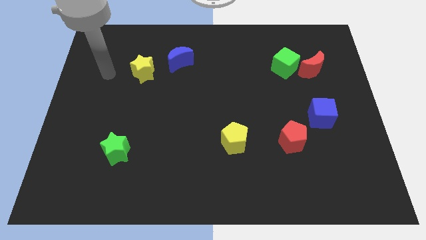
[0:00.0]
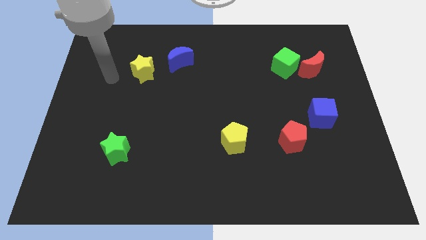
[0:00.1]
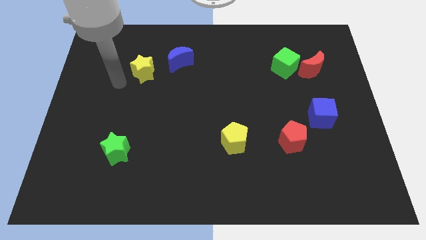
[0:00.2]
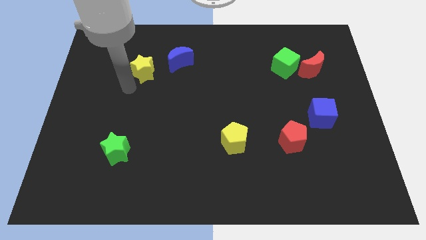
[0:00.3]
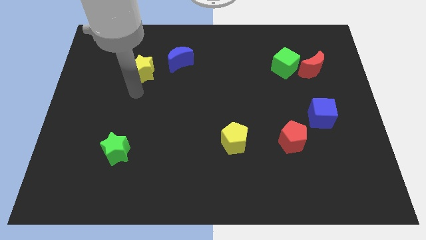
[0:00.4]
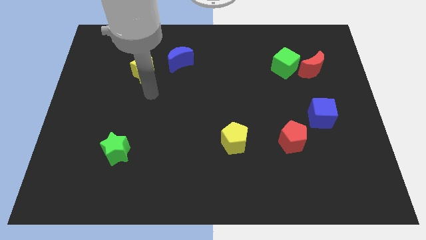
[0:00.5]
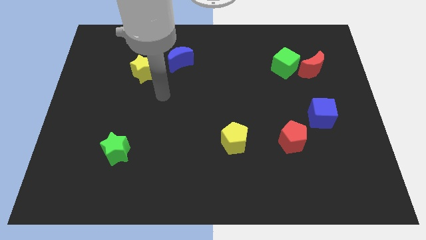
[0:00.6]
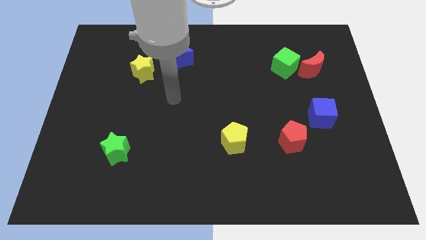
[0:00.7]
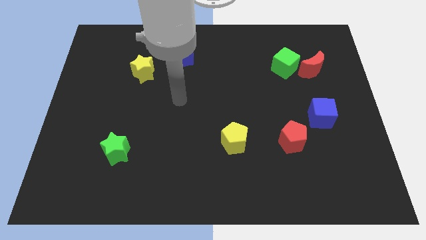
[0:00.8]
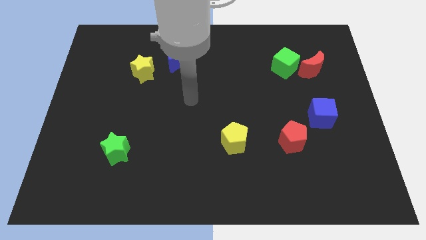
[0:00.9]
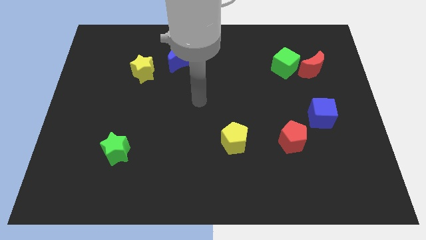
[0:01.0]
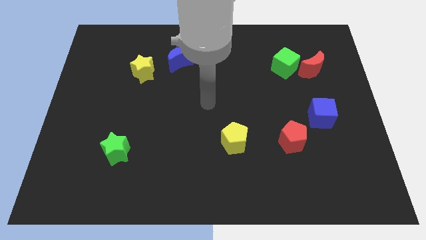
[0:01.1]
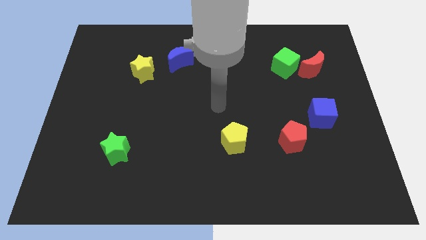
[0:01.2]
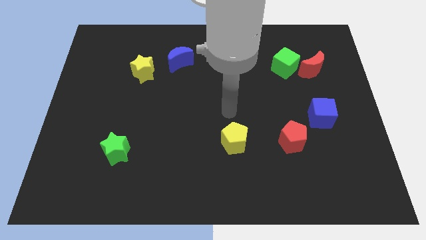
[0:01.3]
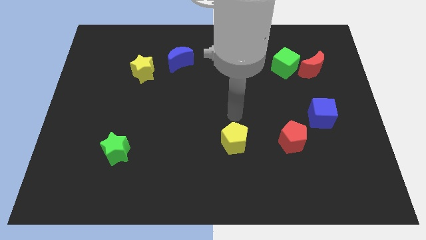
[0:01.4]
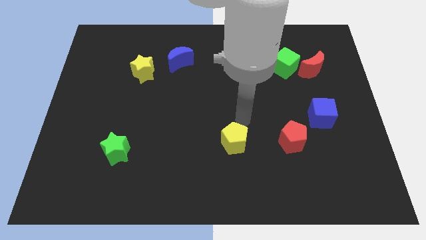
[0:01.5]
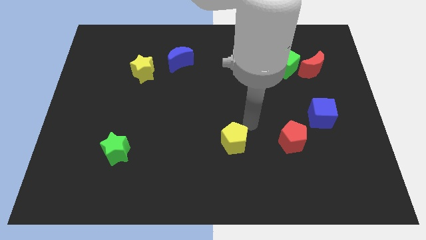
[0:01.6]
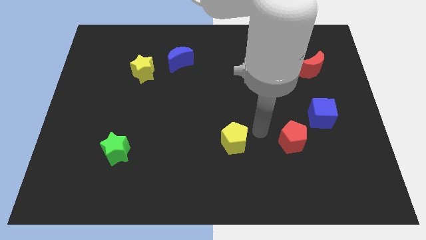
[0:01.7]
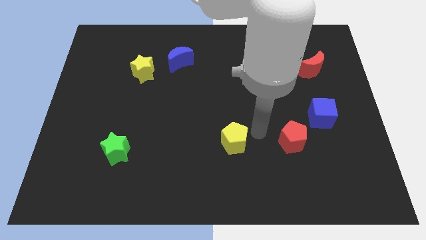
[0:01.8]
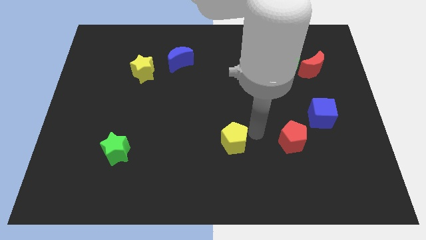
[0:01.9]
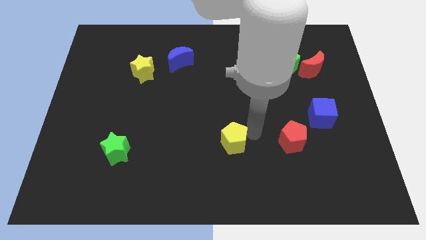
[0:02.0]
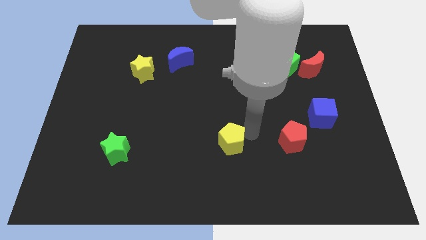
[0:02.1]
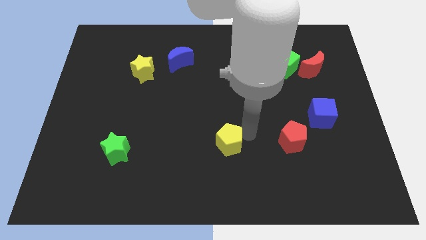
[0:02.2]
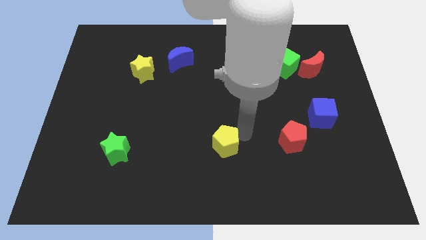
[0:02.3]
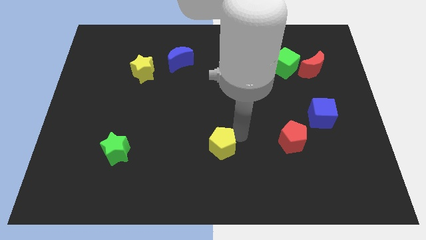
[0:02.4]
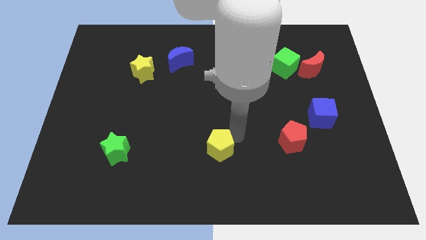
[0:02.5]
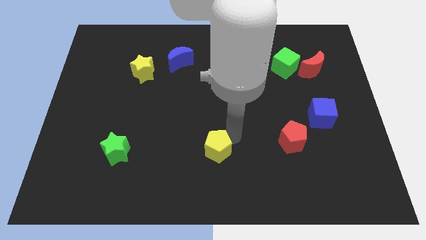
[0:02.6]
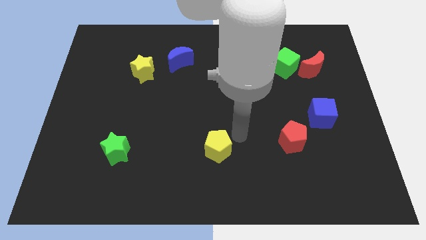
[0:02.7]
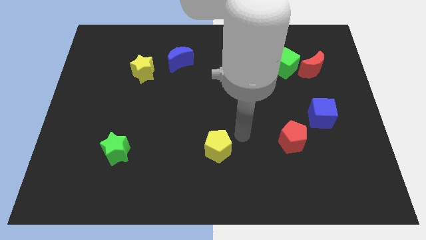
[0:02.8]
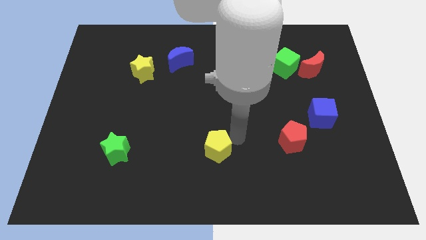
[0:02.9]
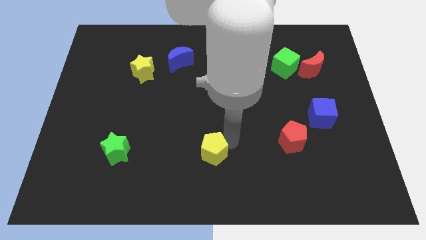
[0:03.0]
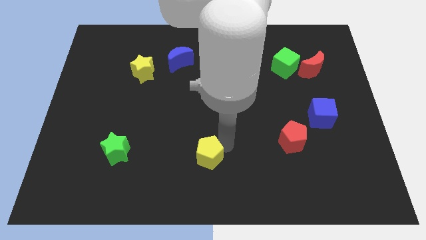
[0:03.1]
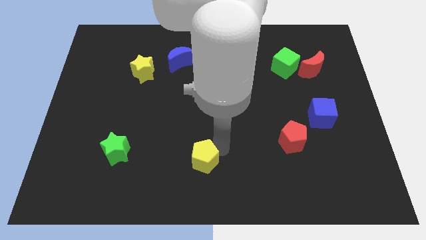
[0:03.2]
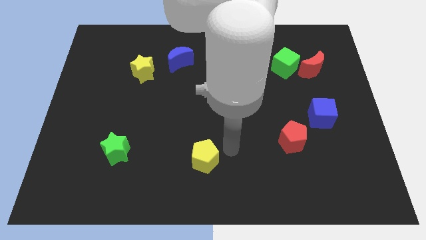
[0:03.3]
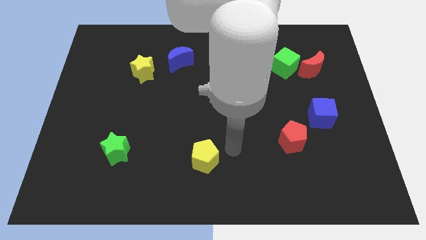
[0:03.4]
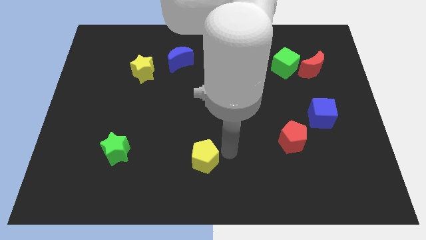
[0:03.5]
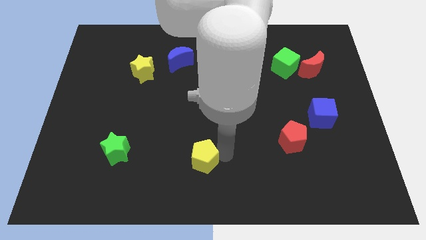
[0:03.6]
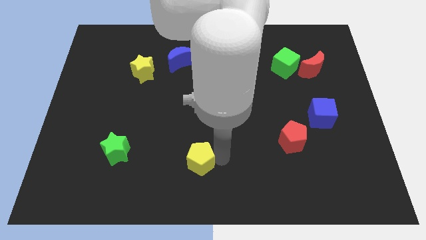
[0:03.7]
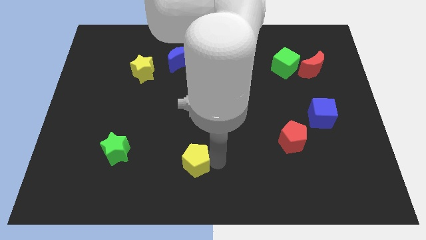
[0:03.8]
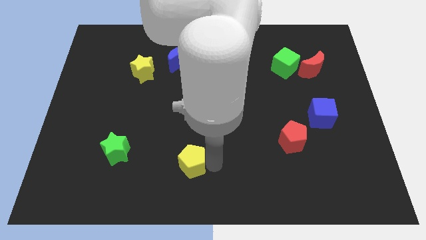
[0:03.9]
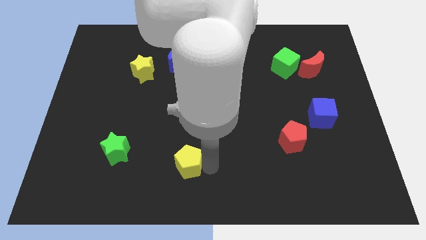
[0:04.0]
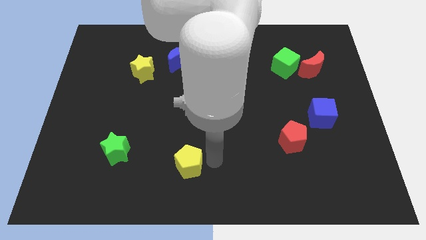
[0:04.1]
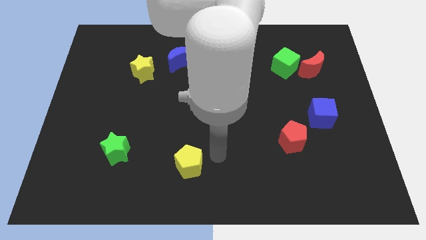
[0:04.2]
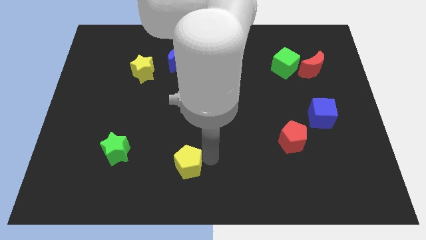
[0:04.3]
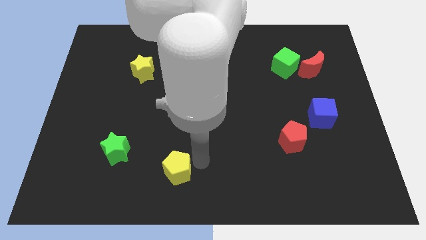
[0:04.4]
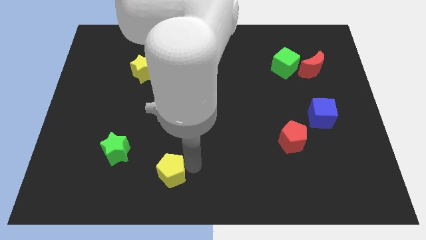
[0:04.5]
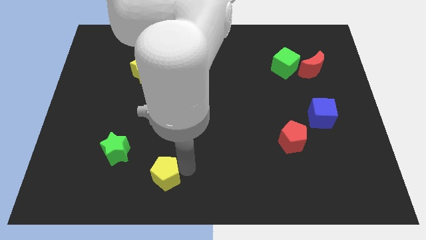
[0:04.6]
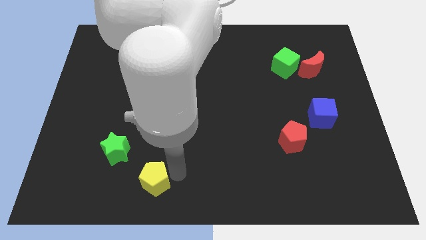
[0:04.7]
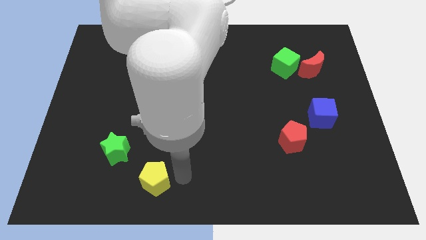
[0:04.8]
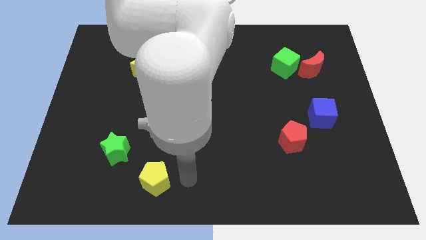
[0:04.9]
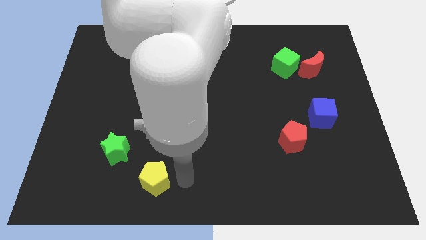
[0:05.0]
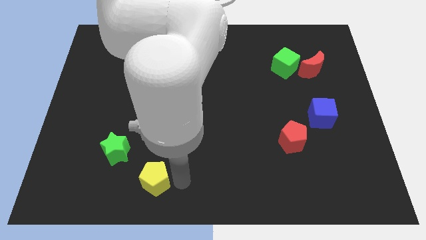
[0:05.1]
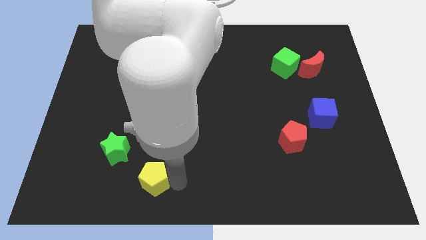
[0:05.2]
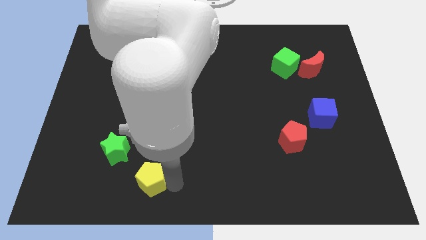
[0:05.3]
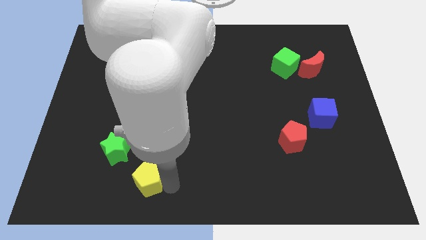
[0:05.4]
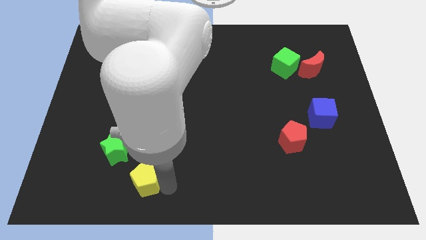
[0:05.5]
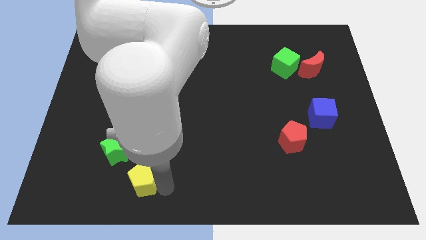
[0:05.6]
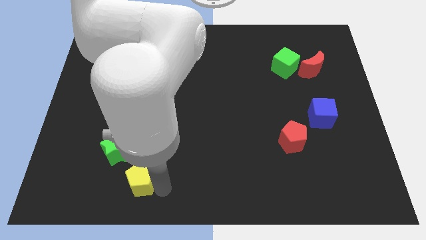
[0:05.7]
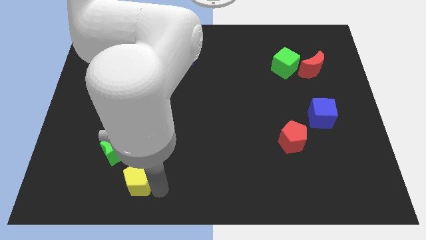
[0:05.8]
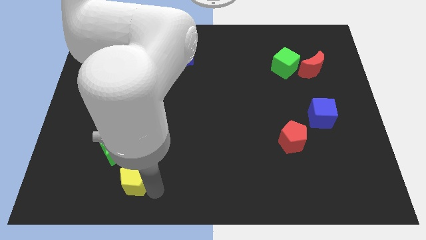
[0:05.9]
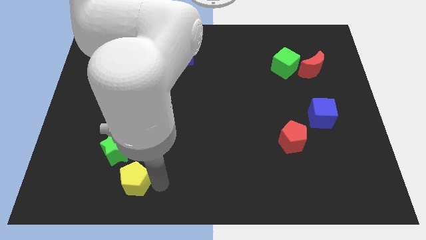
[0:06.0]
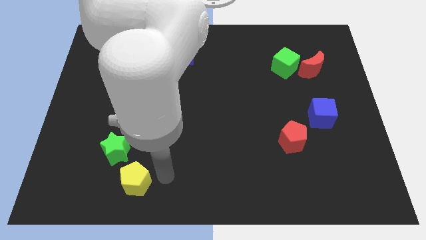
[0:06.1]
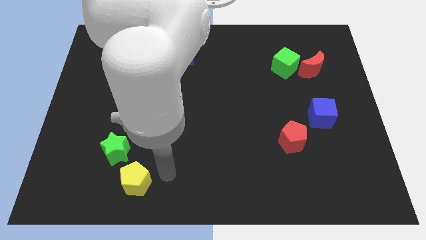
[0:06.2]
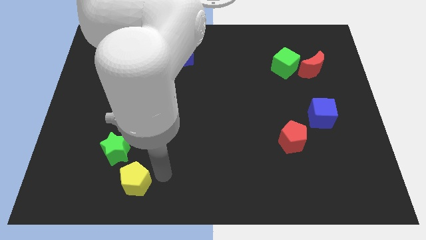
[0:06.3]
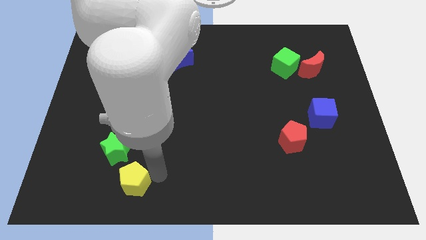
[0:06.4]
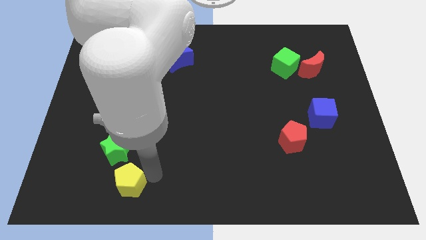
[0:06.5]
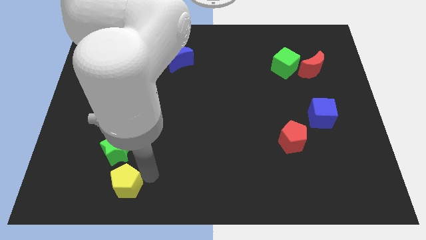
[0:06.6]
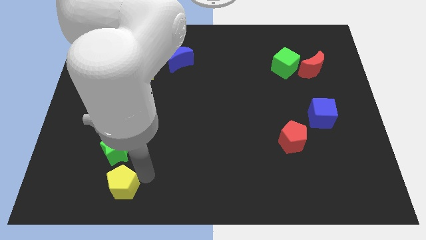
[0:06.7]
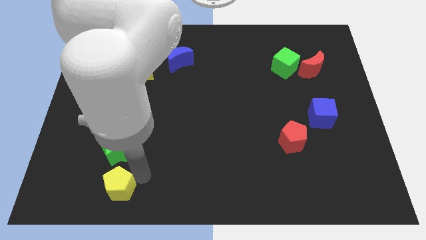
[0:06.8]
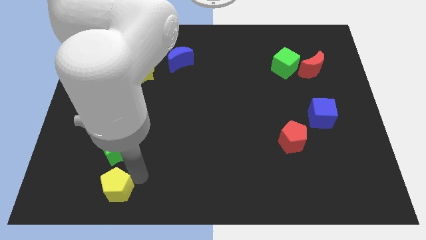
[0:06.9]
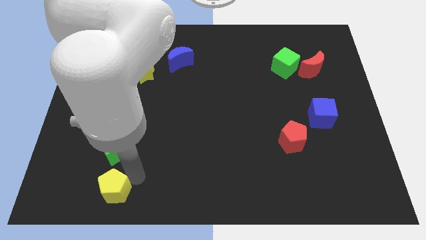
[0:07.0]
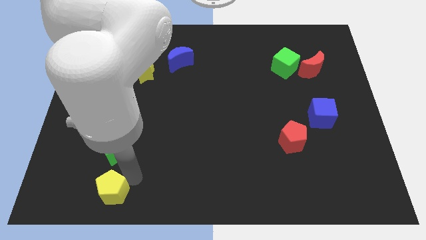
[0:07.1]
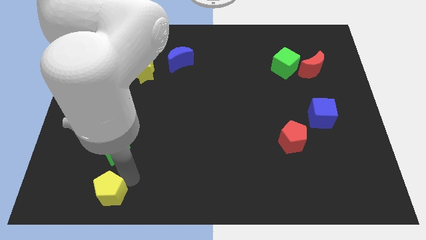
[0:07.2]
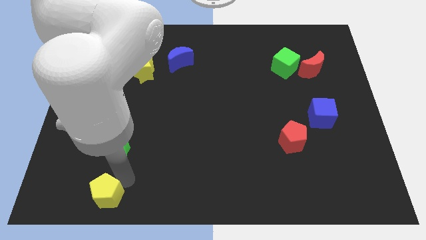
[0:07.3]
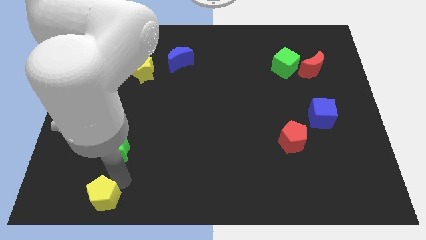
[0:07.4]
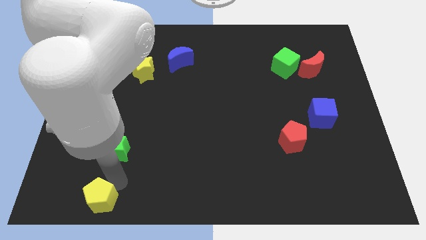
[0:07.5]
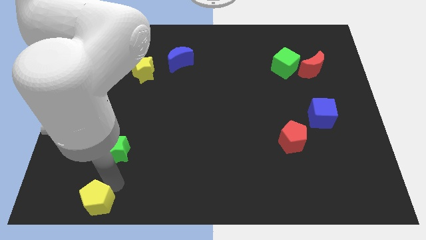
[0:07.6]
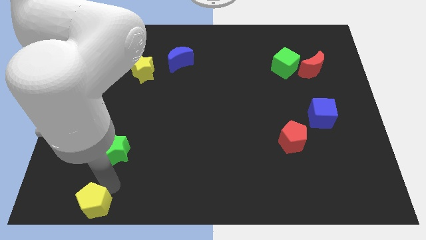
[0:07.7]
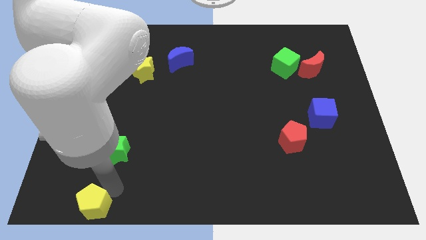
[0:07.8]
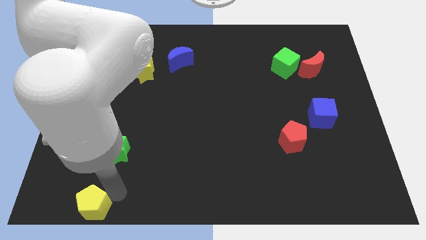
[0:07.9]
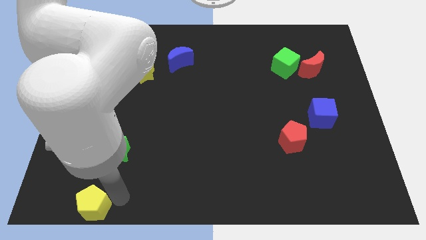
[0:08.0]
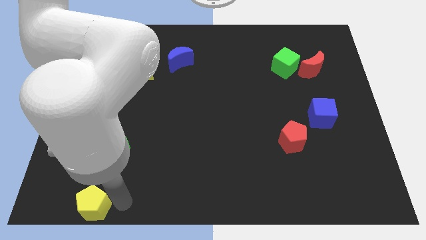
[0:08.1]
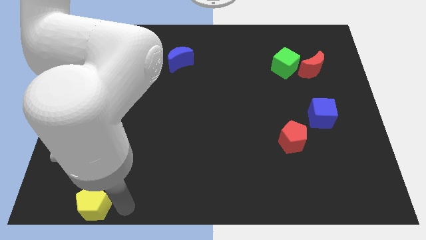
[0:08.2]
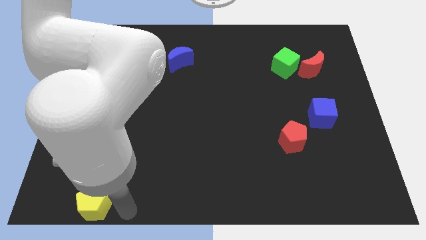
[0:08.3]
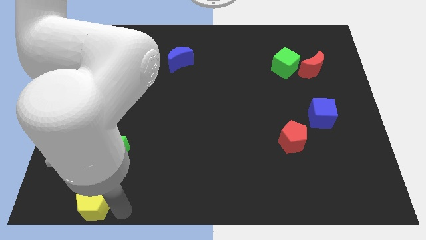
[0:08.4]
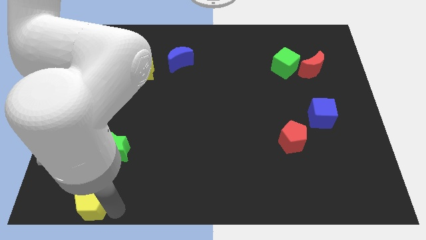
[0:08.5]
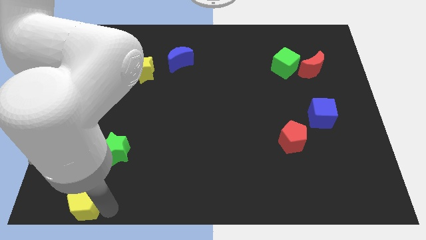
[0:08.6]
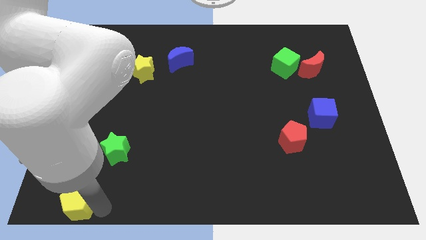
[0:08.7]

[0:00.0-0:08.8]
push the yellow pentagon to the bottom left of the board
